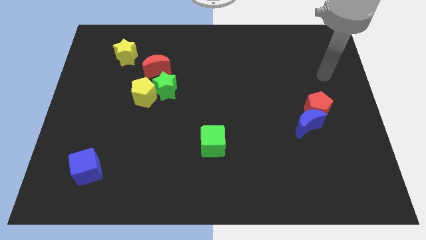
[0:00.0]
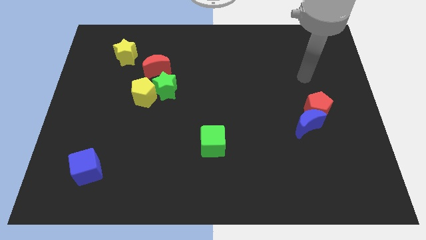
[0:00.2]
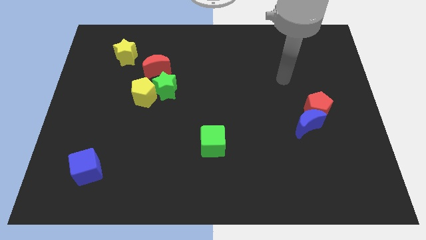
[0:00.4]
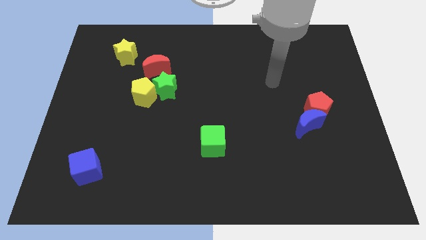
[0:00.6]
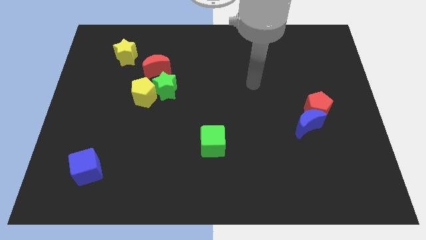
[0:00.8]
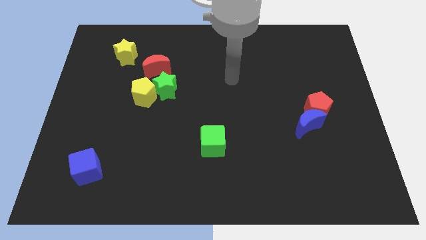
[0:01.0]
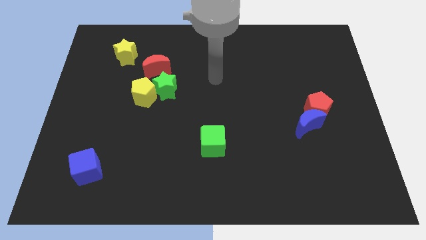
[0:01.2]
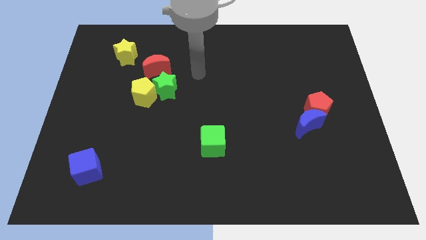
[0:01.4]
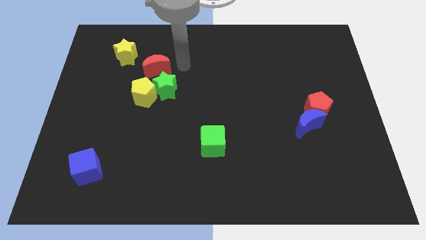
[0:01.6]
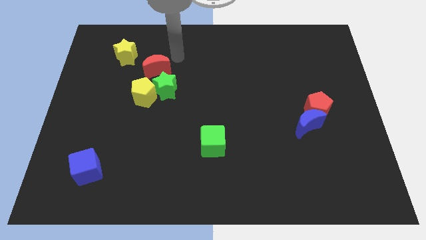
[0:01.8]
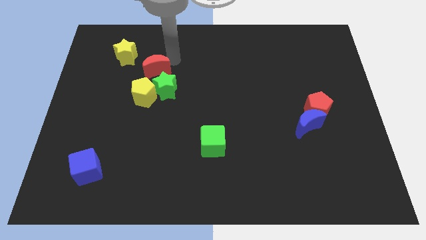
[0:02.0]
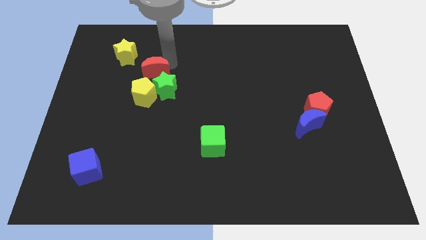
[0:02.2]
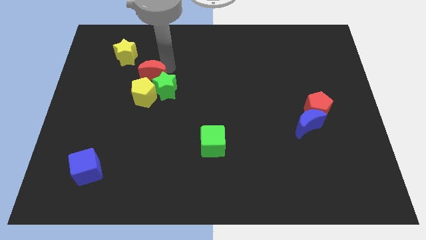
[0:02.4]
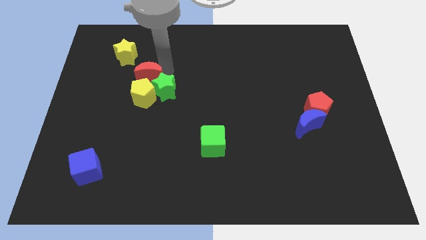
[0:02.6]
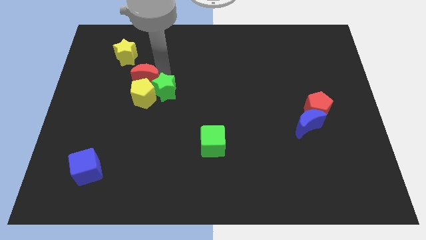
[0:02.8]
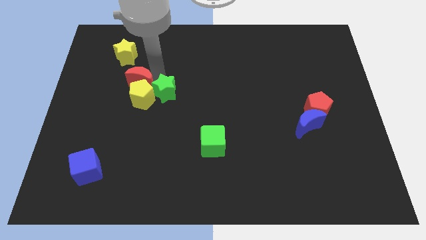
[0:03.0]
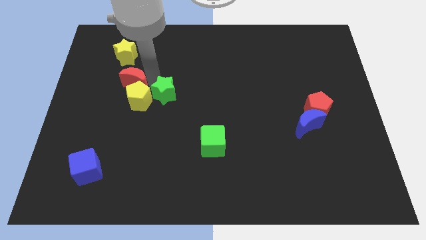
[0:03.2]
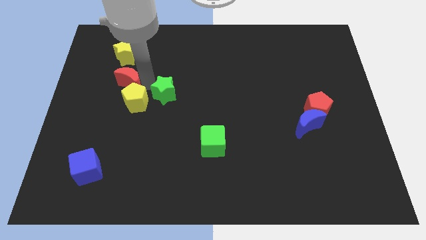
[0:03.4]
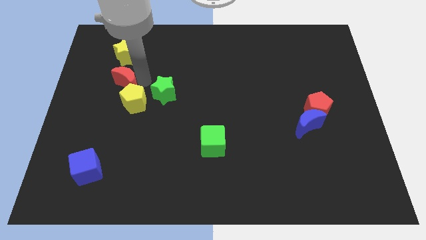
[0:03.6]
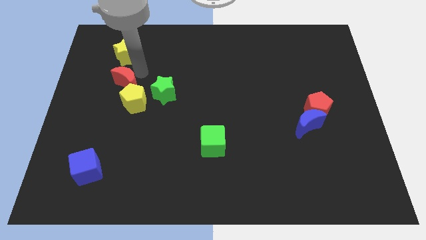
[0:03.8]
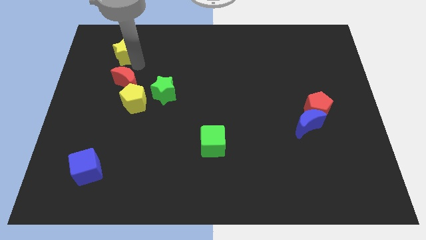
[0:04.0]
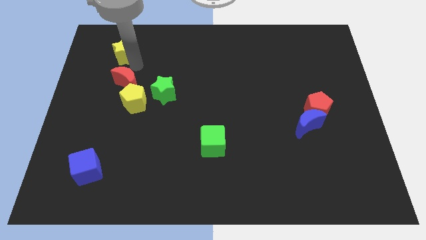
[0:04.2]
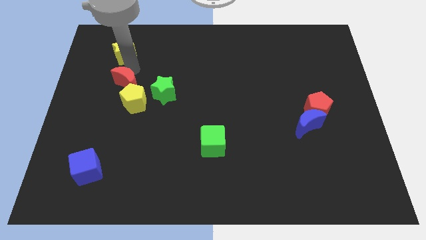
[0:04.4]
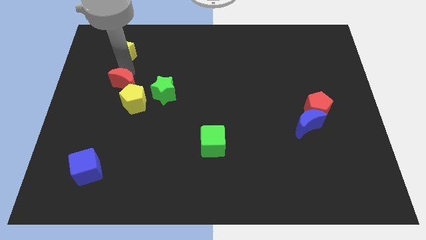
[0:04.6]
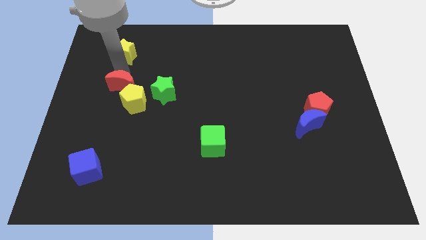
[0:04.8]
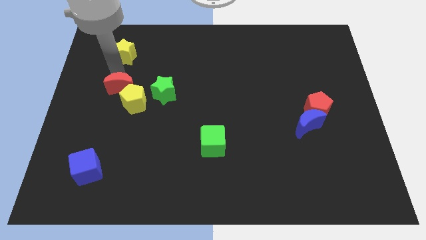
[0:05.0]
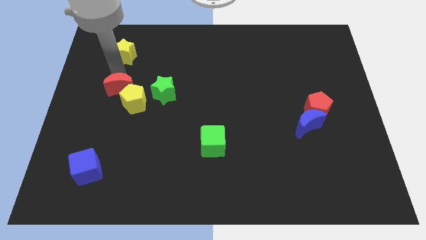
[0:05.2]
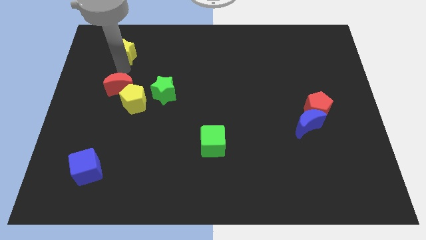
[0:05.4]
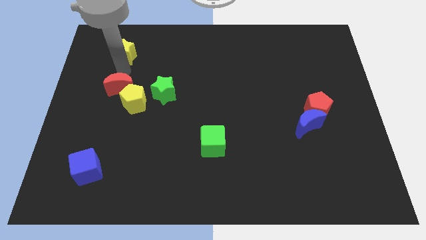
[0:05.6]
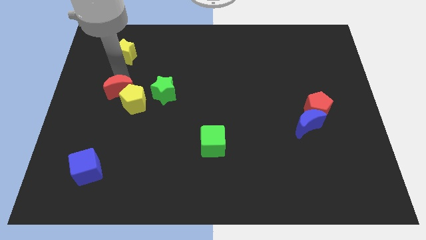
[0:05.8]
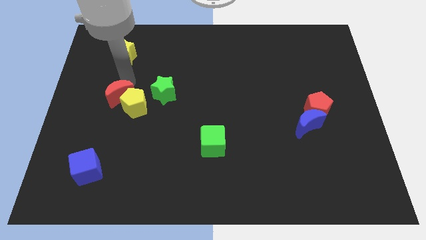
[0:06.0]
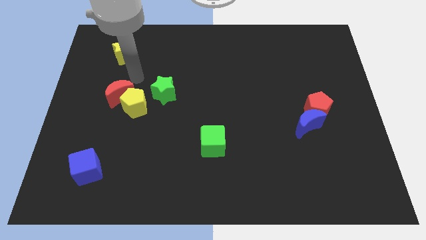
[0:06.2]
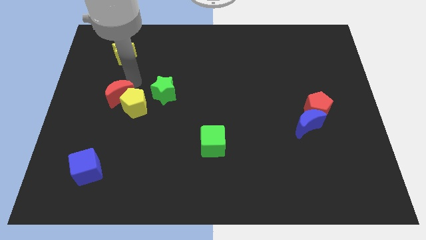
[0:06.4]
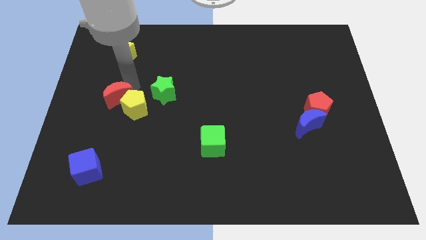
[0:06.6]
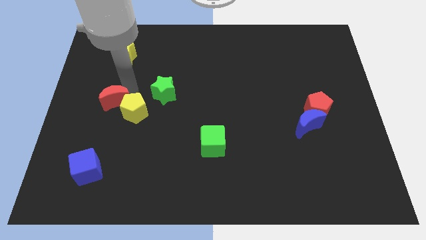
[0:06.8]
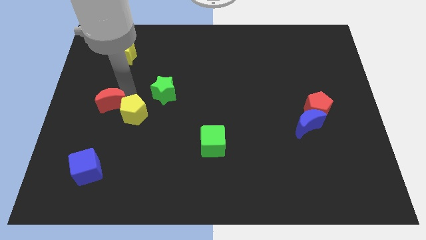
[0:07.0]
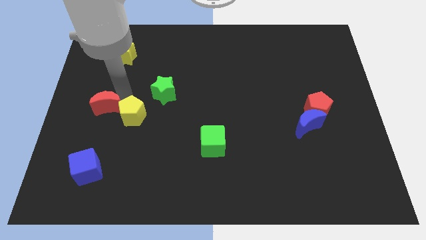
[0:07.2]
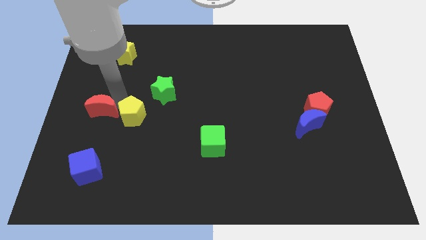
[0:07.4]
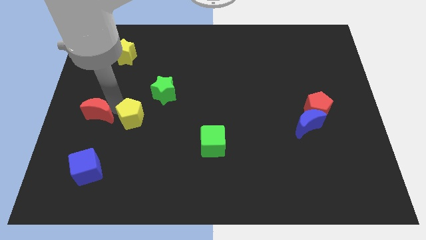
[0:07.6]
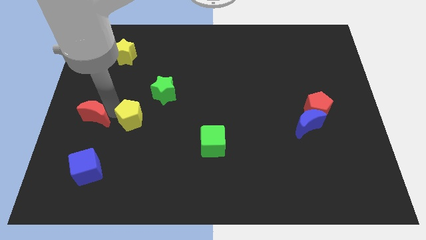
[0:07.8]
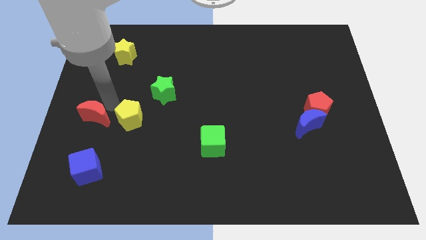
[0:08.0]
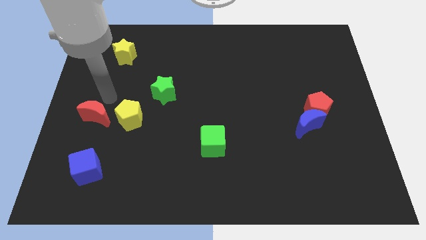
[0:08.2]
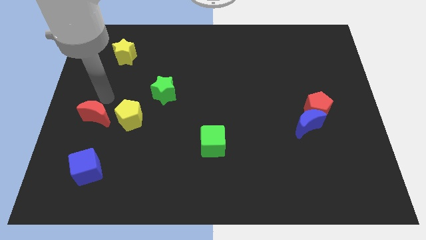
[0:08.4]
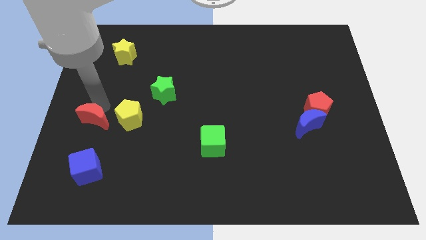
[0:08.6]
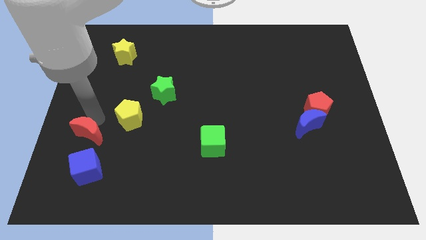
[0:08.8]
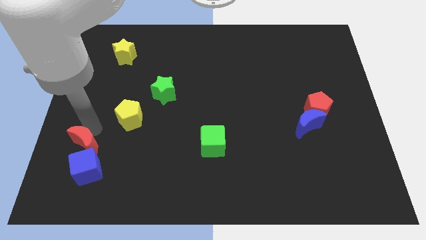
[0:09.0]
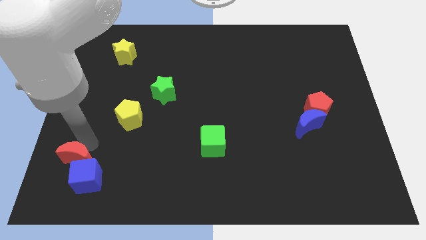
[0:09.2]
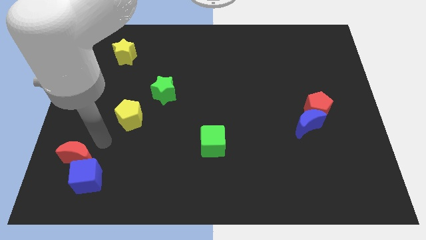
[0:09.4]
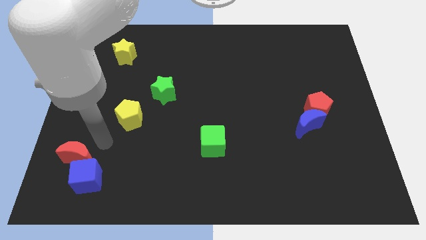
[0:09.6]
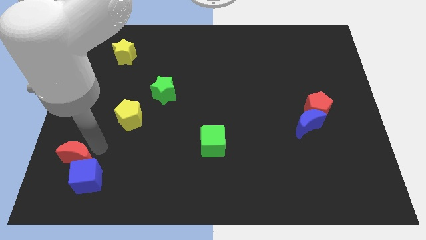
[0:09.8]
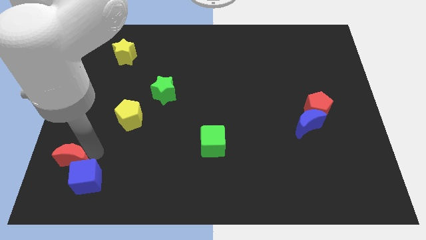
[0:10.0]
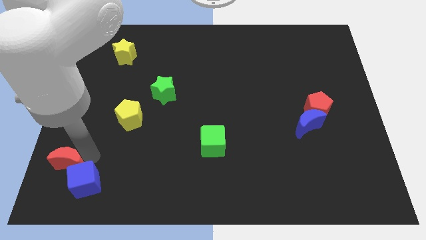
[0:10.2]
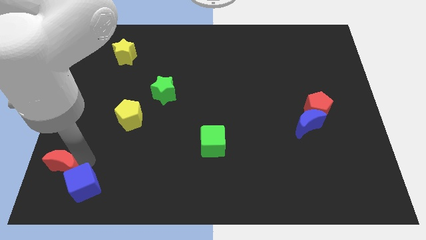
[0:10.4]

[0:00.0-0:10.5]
slide the red moon to the lower left corner

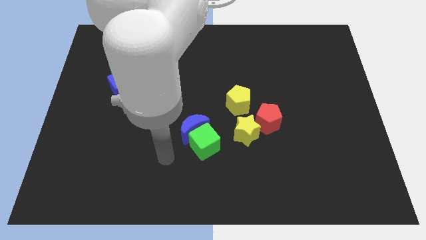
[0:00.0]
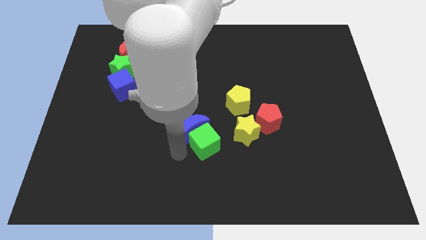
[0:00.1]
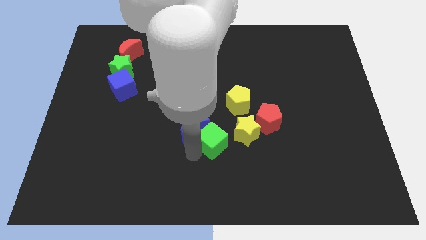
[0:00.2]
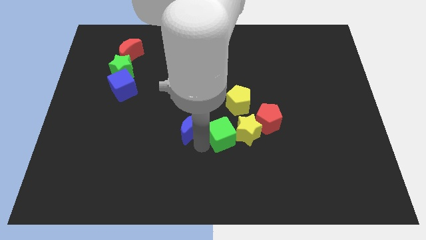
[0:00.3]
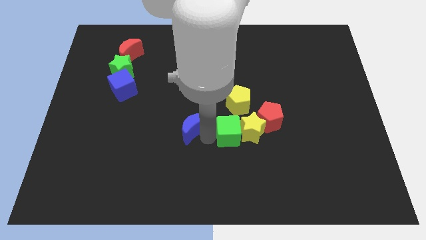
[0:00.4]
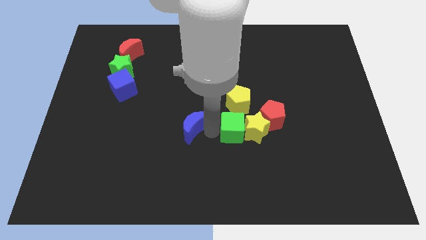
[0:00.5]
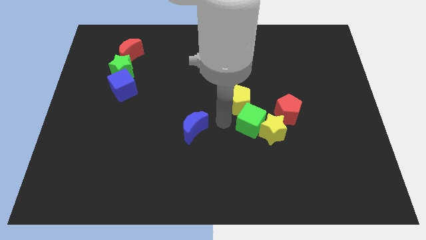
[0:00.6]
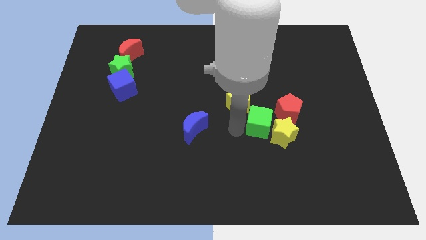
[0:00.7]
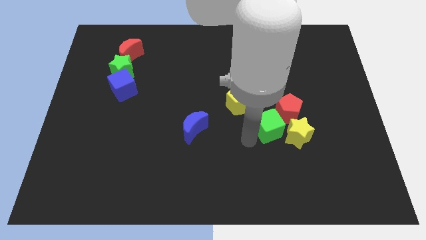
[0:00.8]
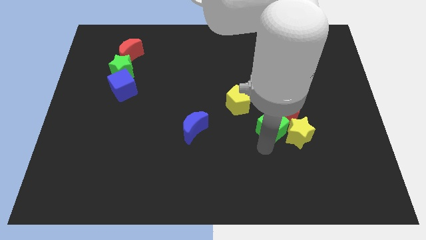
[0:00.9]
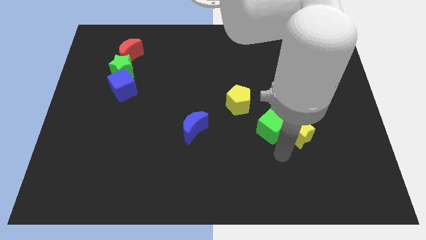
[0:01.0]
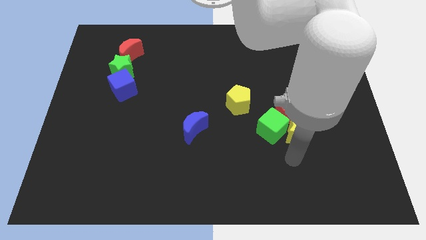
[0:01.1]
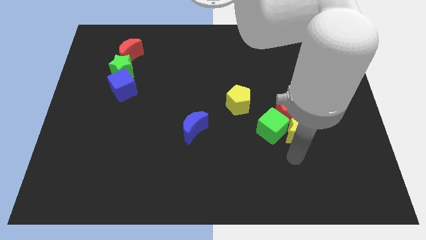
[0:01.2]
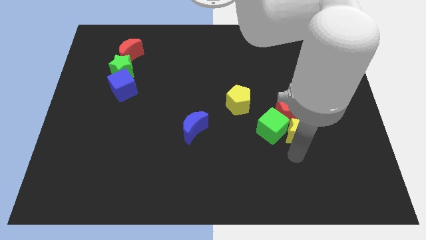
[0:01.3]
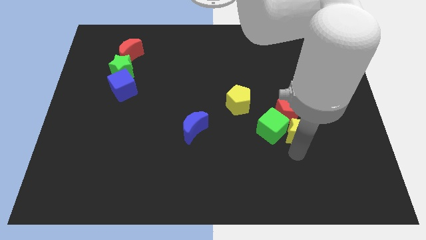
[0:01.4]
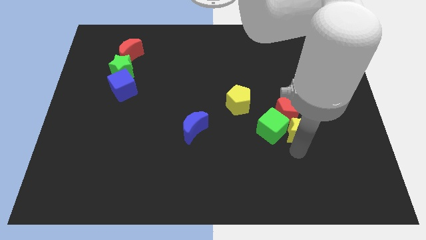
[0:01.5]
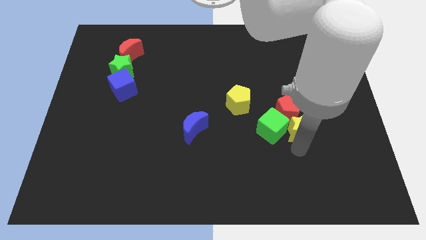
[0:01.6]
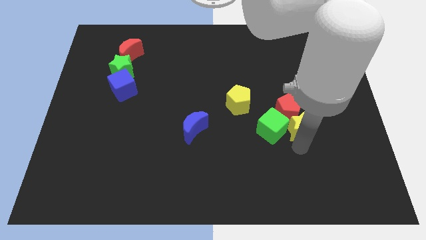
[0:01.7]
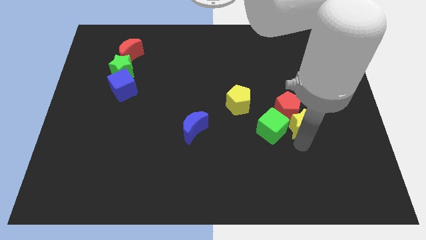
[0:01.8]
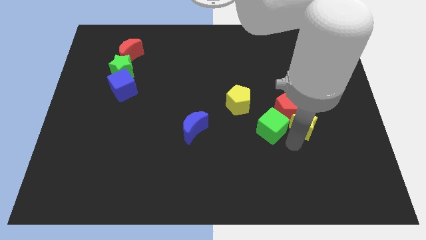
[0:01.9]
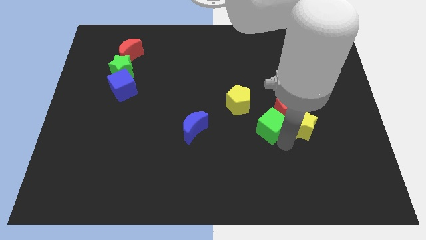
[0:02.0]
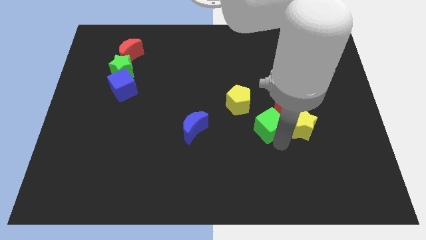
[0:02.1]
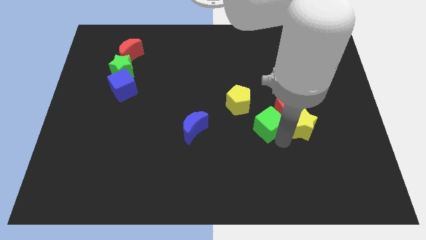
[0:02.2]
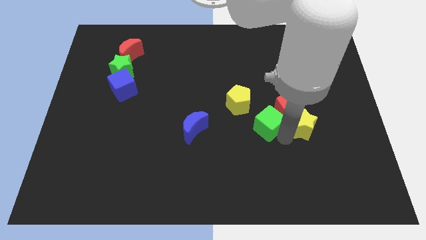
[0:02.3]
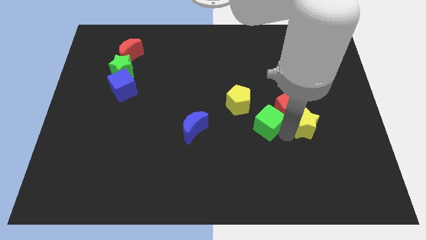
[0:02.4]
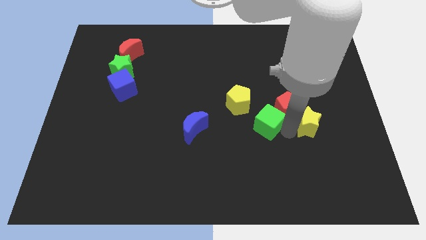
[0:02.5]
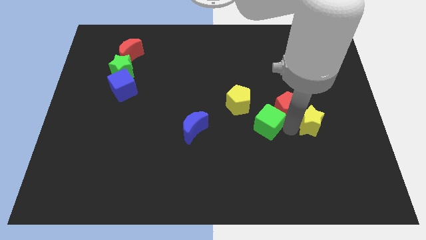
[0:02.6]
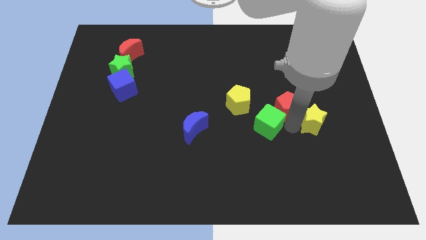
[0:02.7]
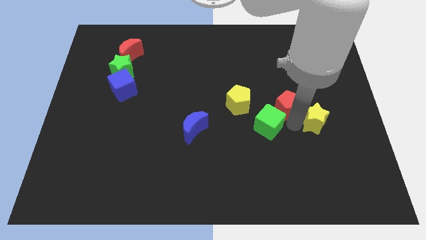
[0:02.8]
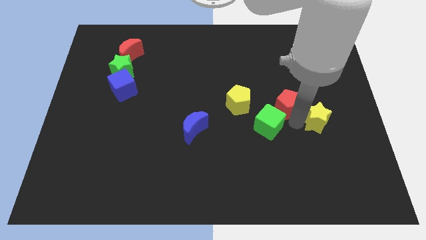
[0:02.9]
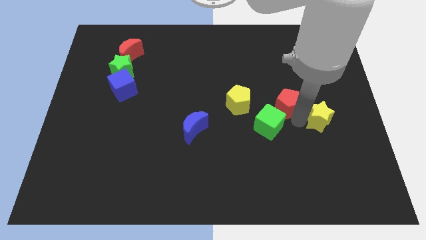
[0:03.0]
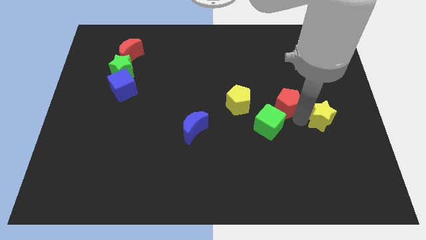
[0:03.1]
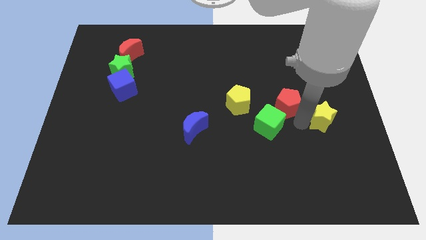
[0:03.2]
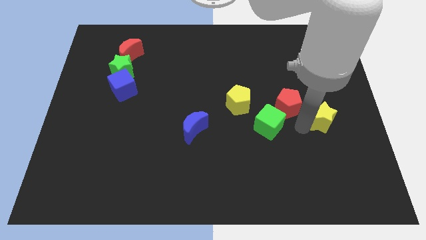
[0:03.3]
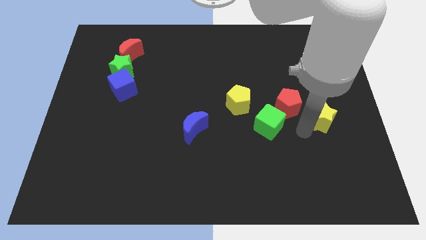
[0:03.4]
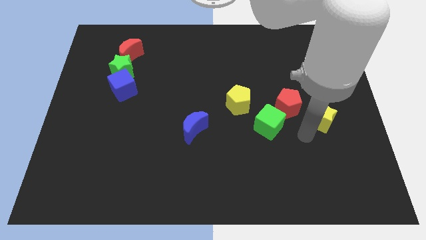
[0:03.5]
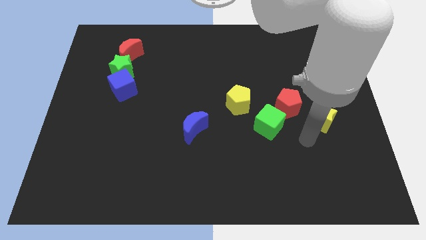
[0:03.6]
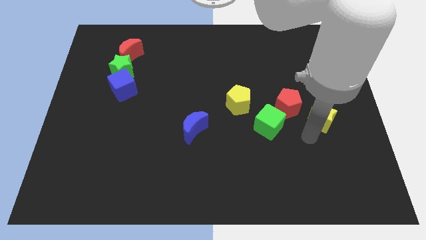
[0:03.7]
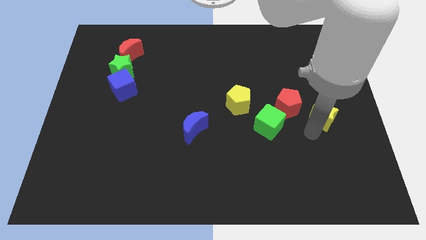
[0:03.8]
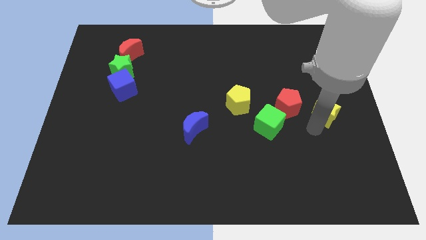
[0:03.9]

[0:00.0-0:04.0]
move the yellow star to the center right
